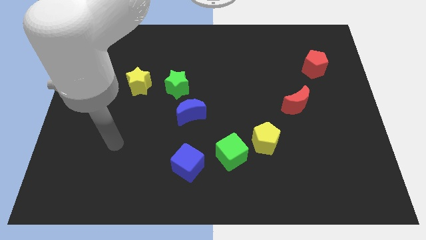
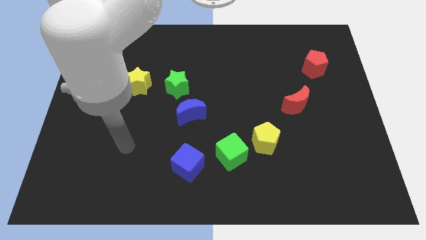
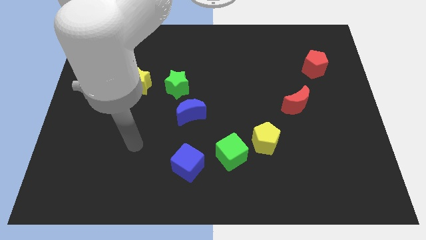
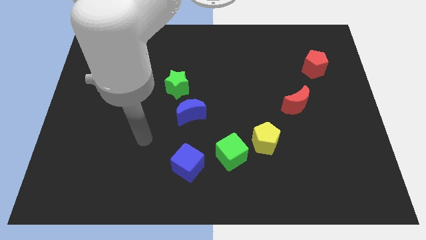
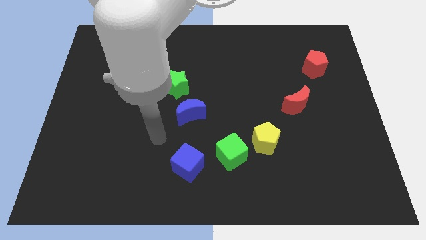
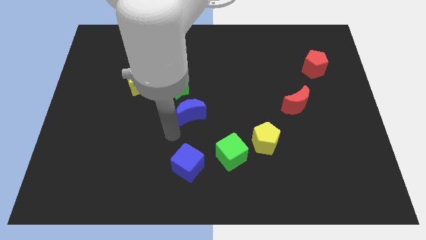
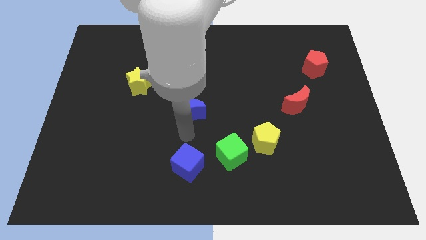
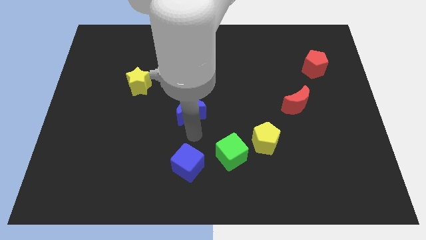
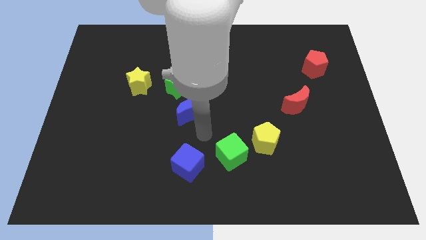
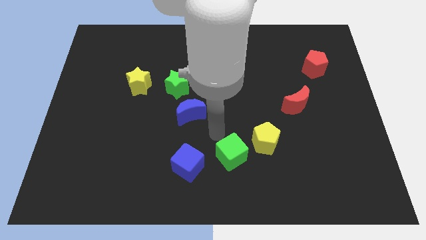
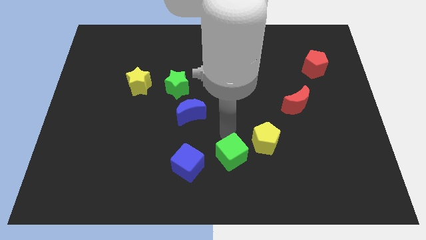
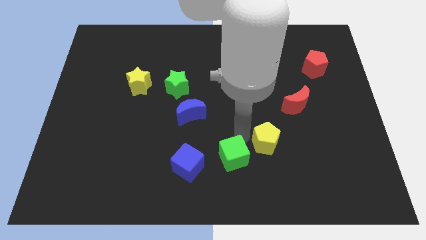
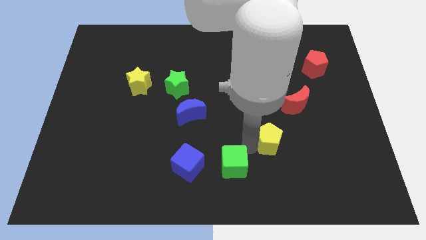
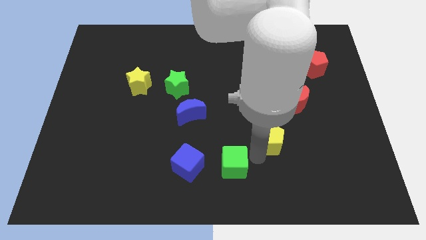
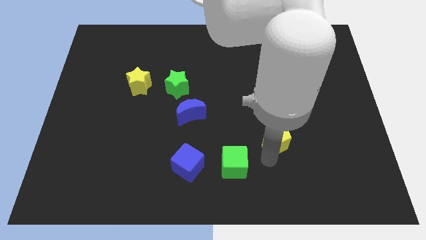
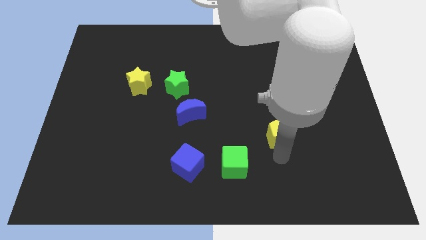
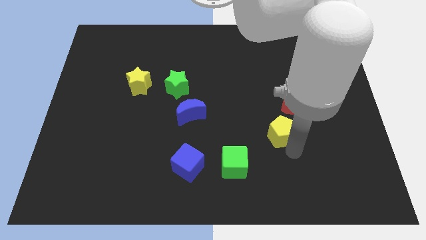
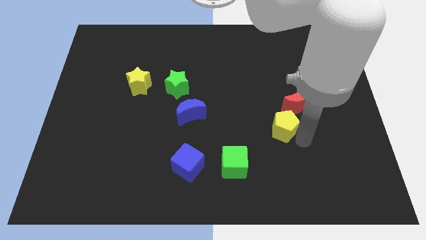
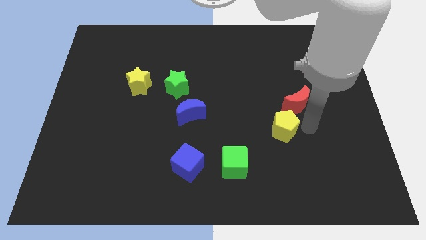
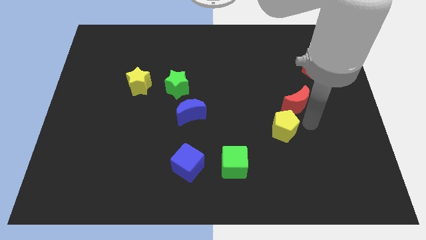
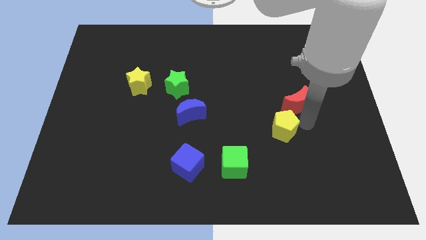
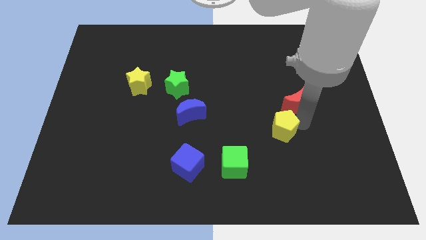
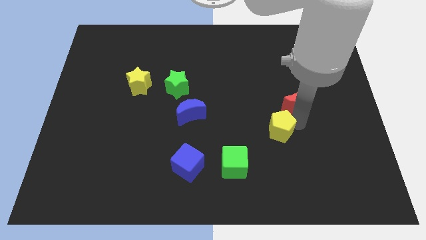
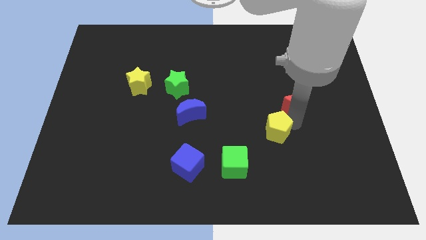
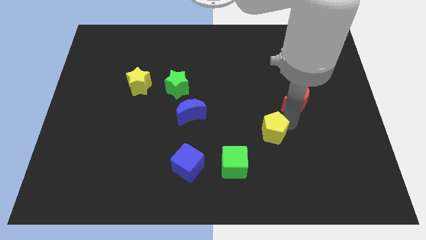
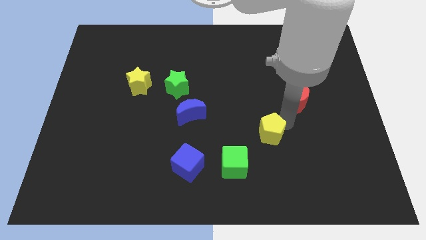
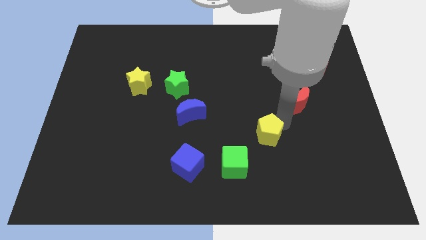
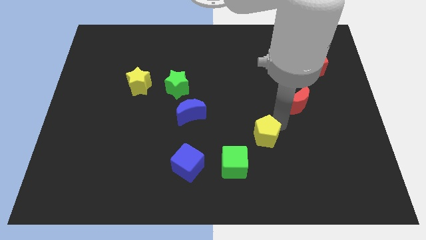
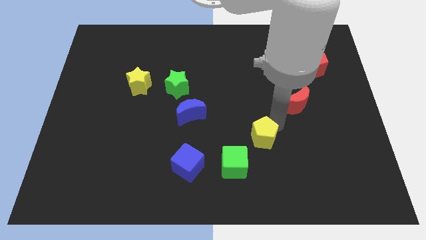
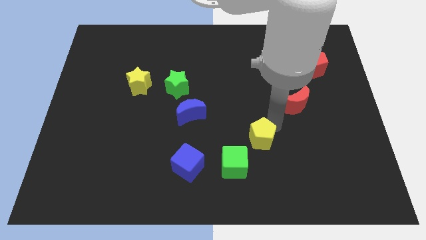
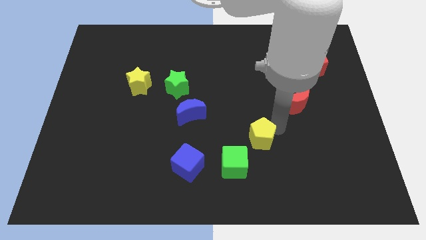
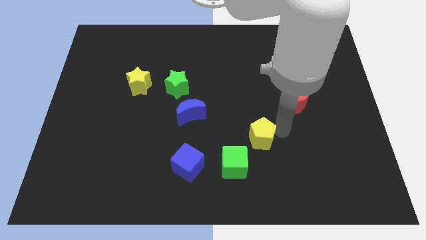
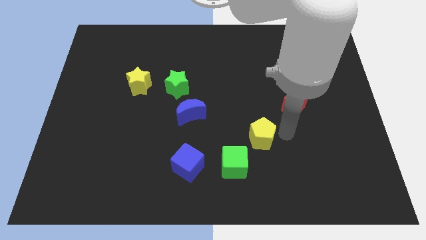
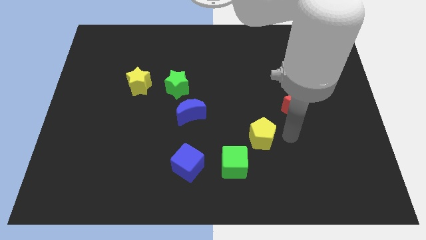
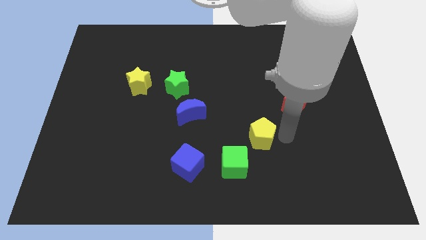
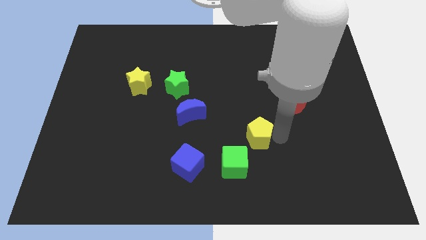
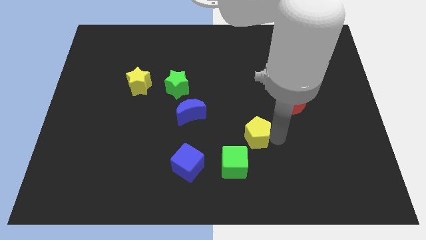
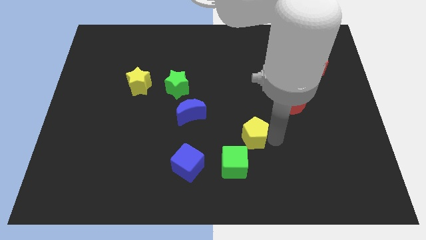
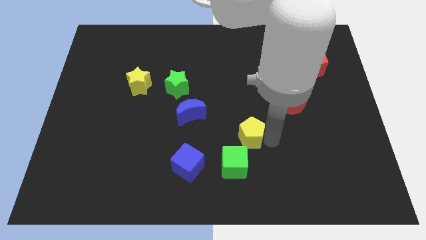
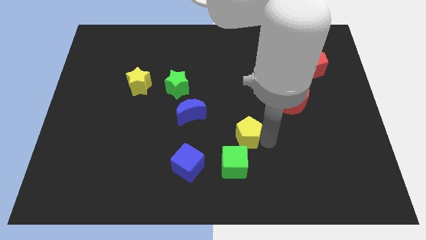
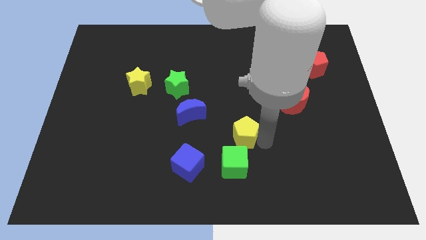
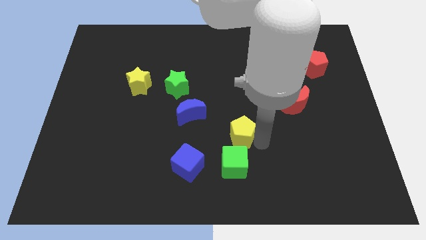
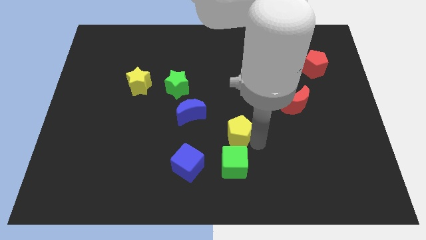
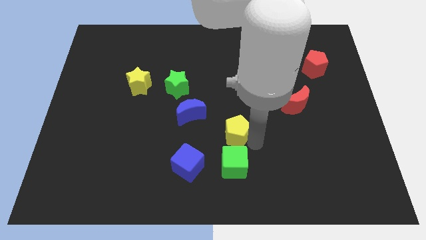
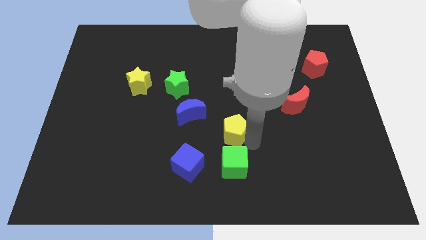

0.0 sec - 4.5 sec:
move the yellow pentagon to the left a little

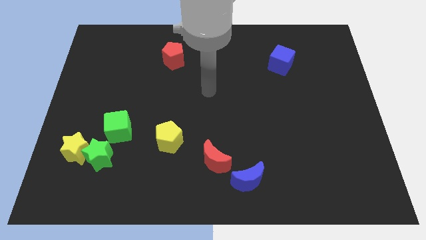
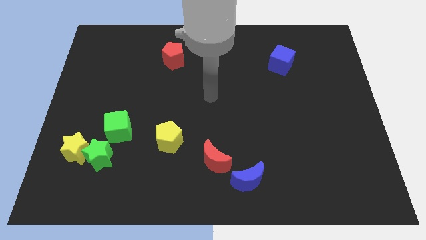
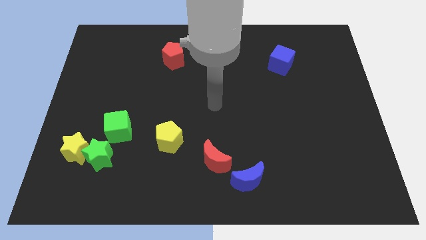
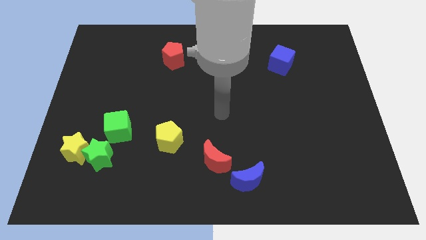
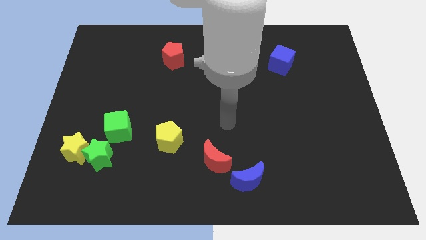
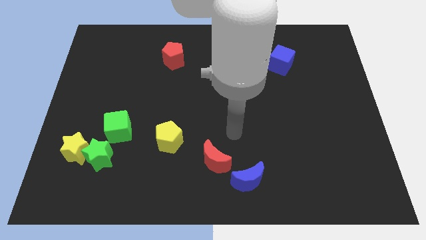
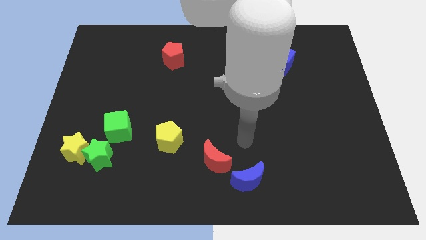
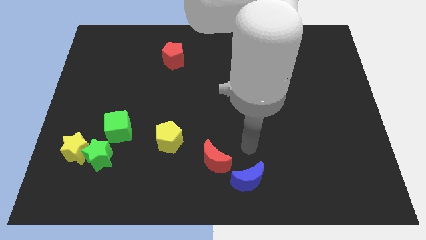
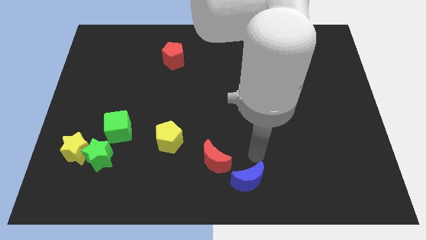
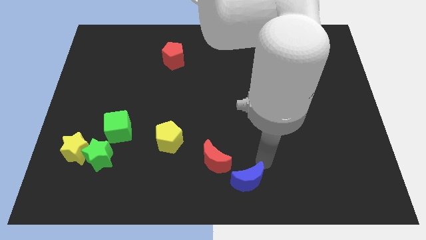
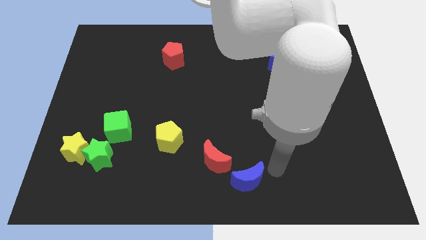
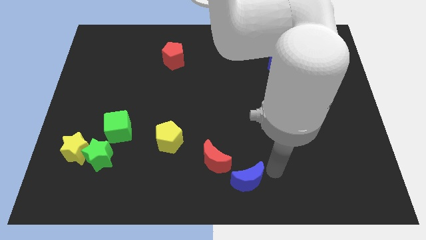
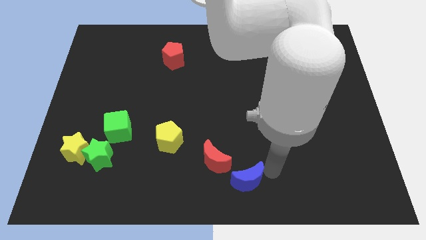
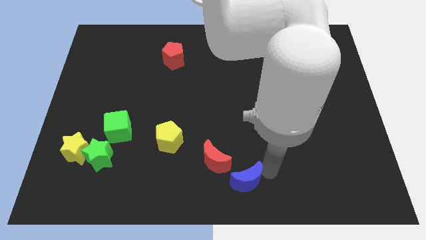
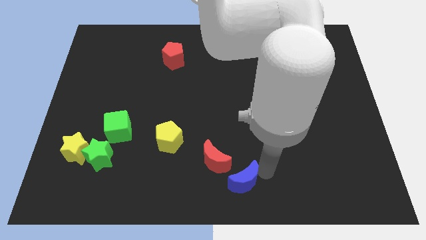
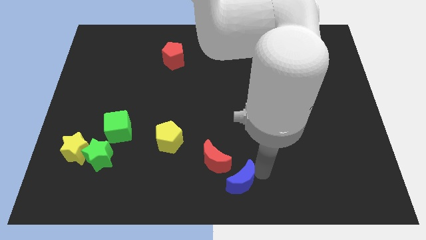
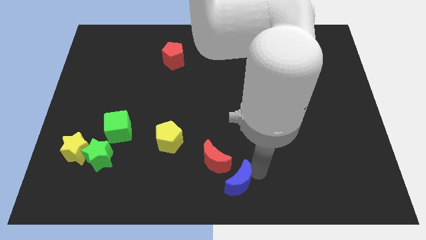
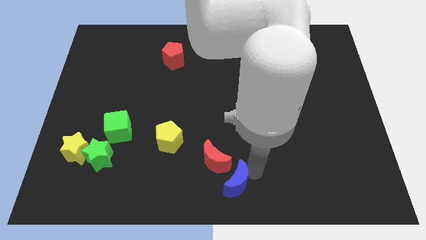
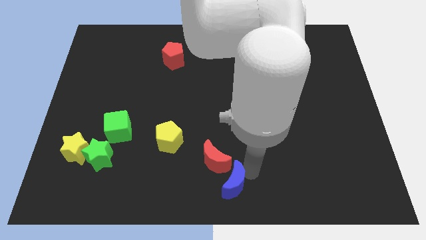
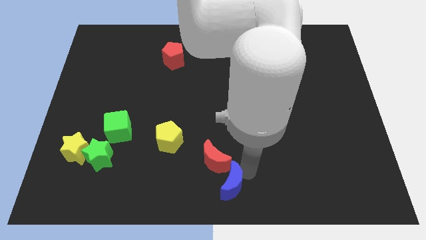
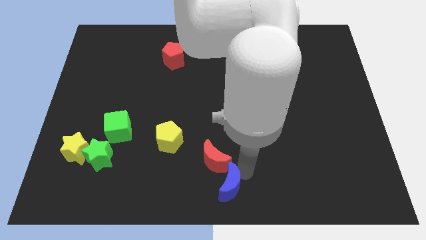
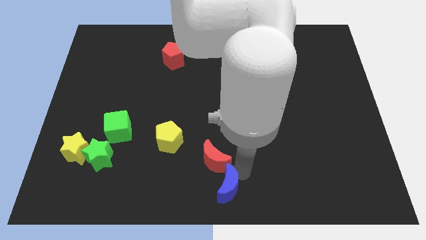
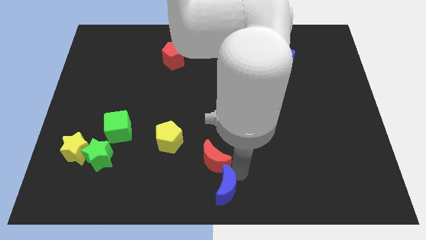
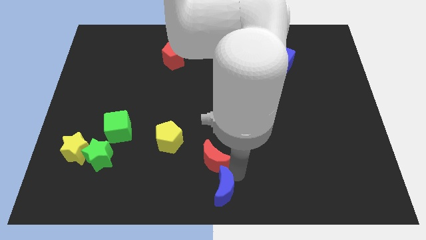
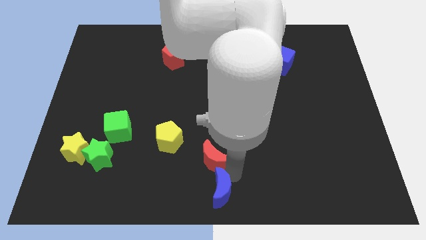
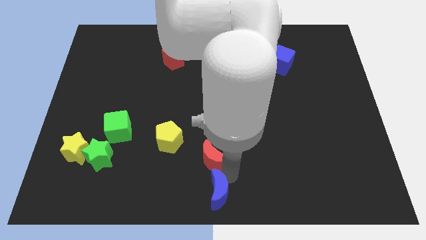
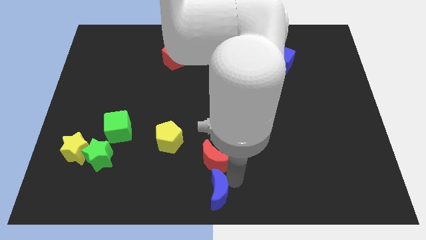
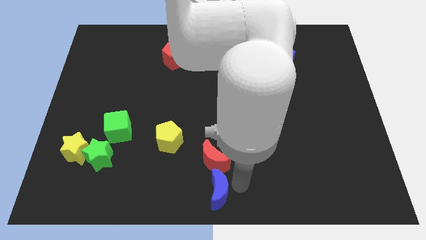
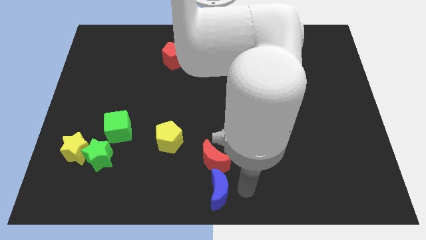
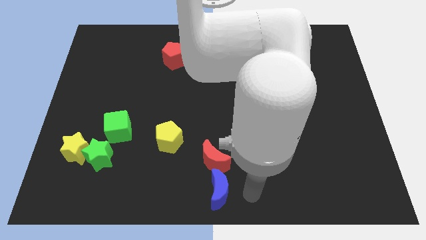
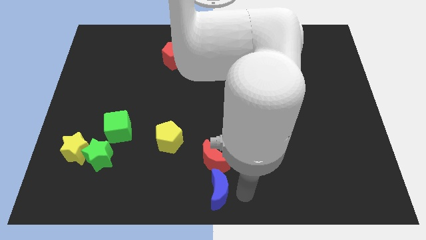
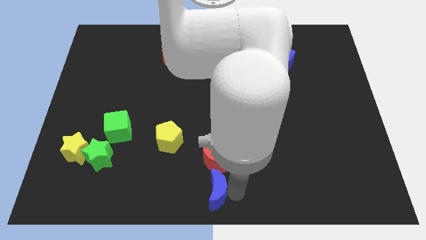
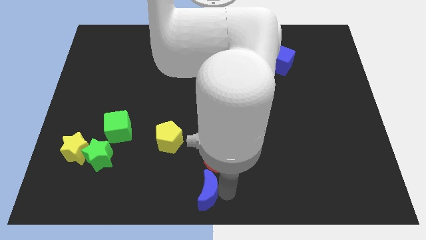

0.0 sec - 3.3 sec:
move the blue moon slightly left

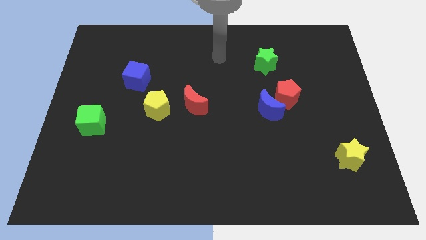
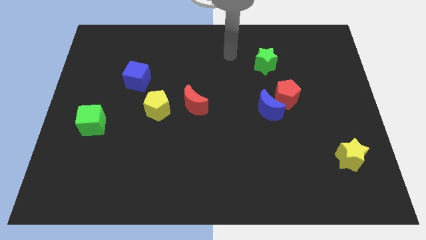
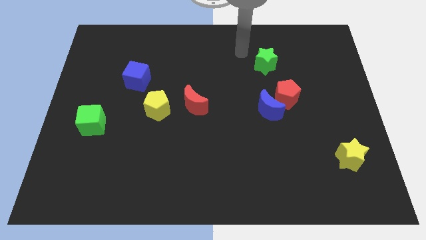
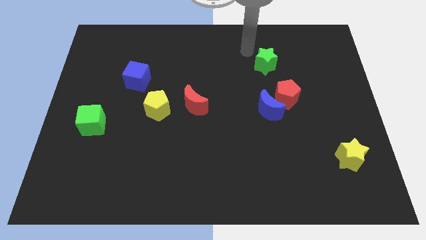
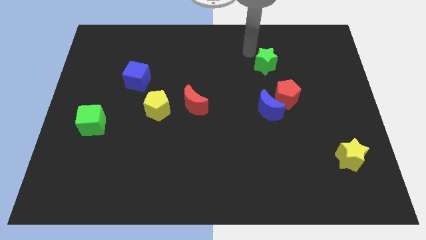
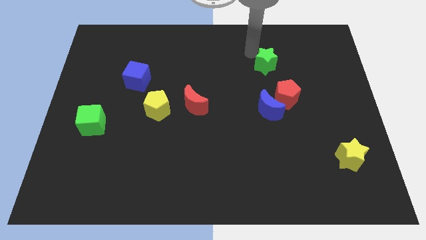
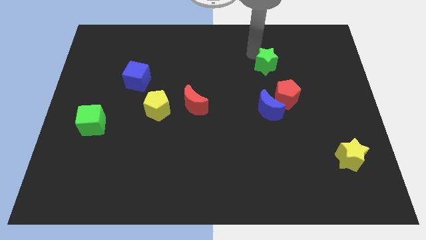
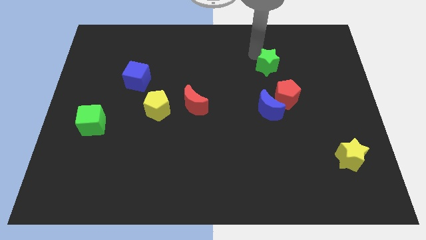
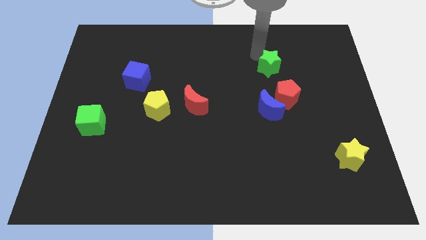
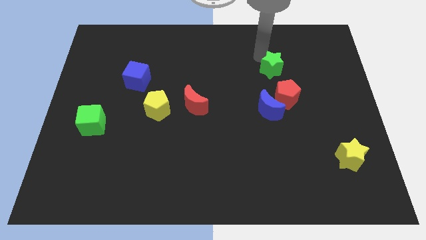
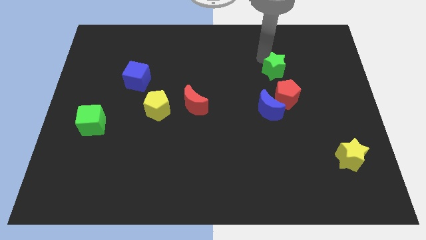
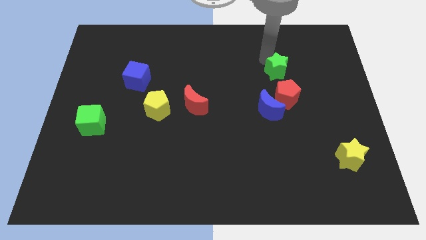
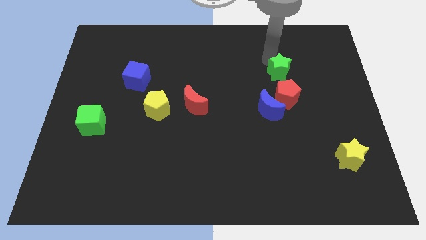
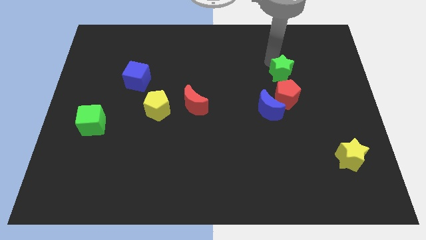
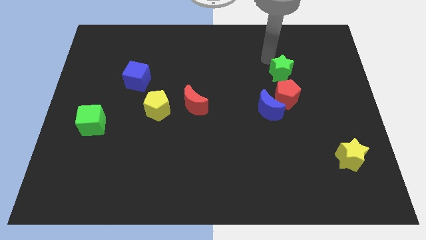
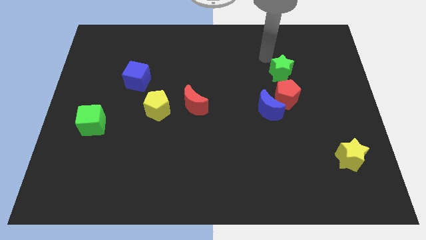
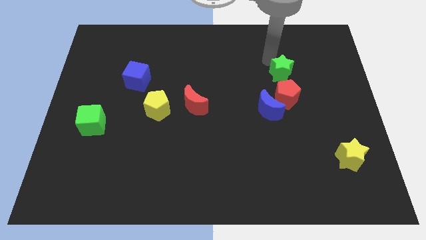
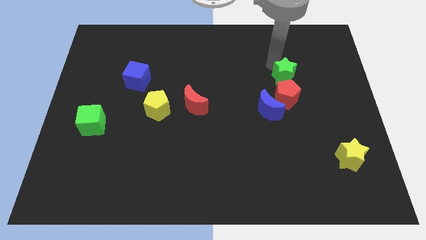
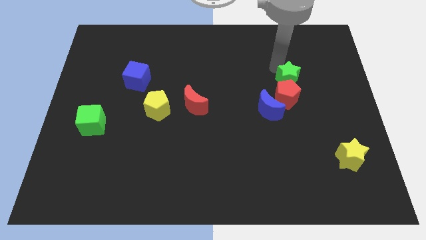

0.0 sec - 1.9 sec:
move the green star downwards and then right a bit
